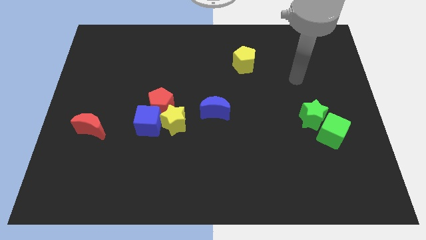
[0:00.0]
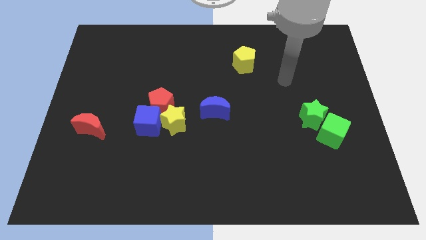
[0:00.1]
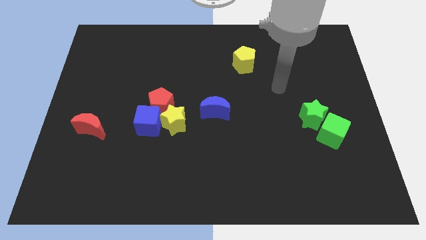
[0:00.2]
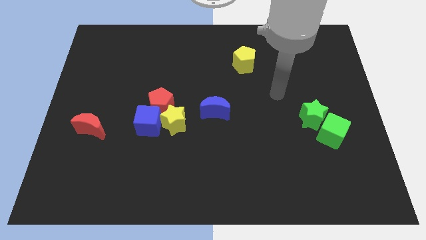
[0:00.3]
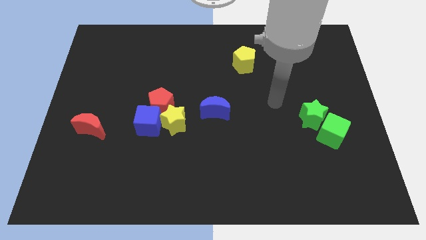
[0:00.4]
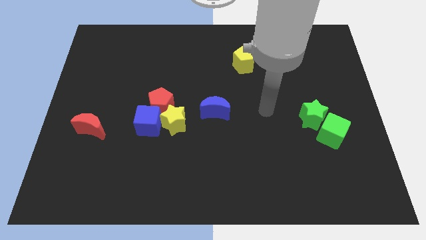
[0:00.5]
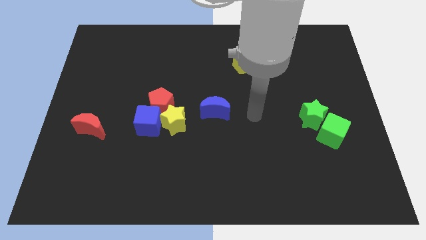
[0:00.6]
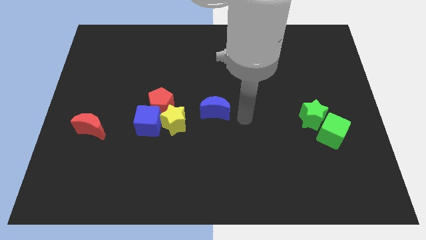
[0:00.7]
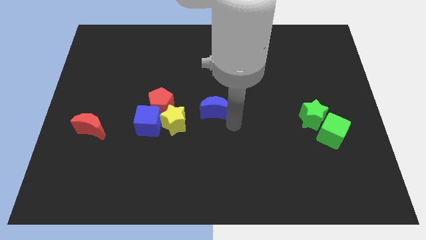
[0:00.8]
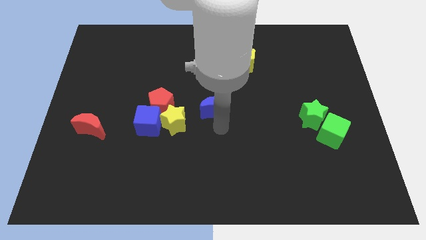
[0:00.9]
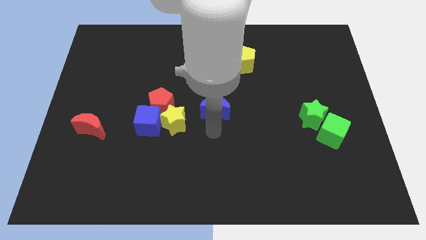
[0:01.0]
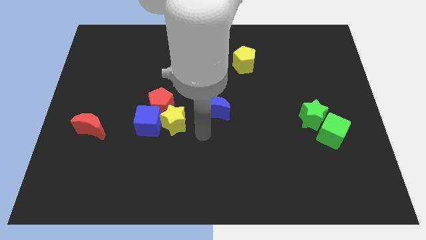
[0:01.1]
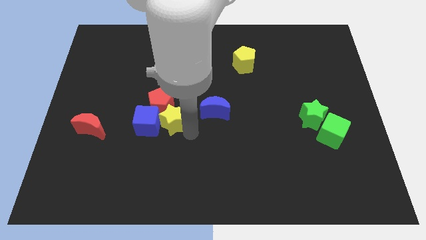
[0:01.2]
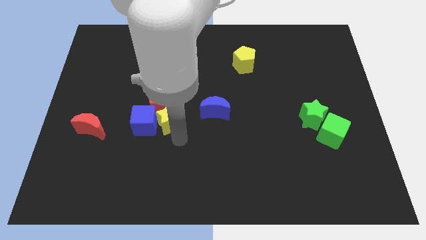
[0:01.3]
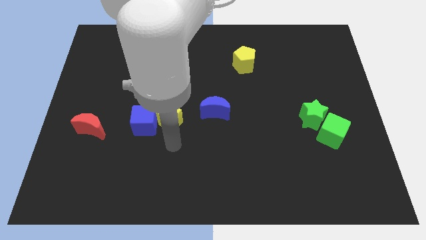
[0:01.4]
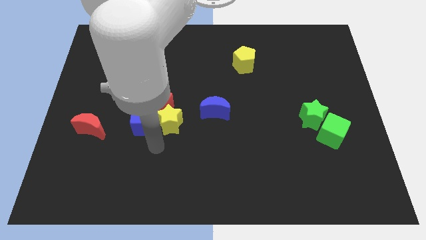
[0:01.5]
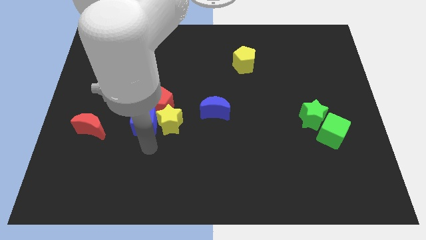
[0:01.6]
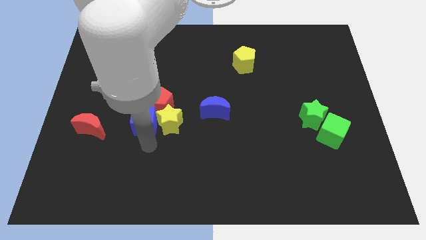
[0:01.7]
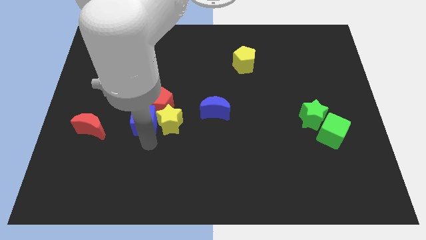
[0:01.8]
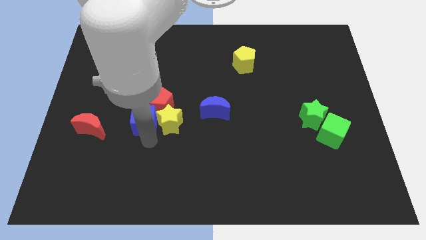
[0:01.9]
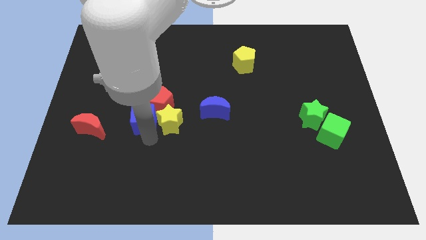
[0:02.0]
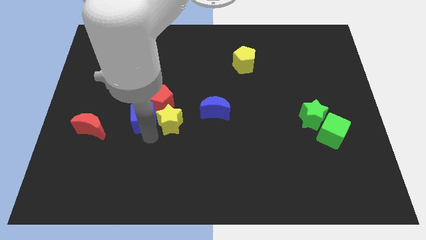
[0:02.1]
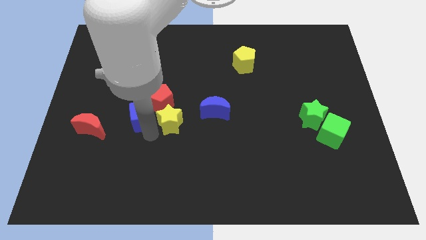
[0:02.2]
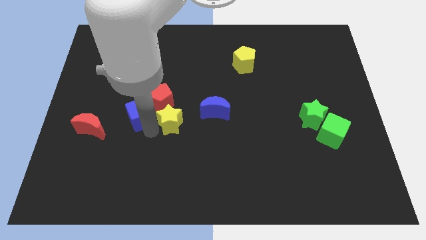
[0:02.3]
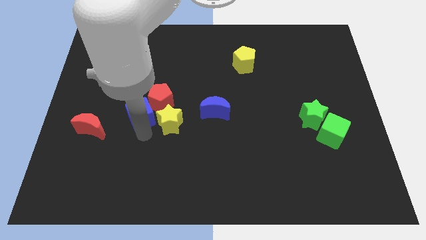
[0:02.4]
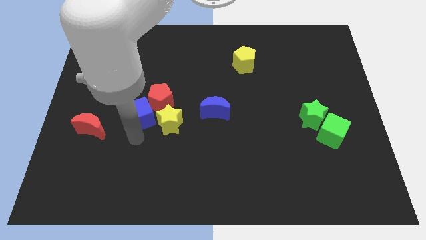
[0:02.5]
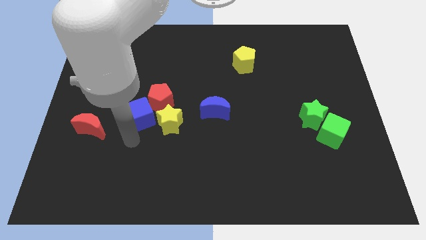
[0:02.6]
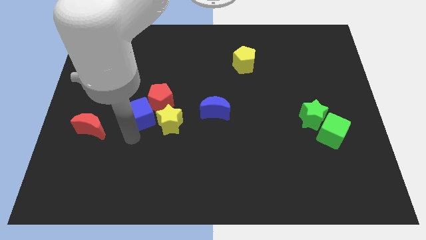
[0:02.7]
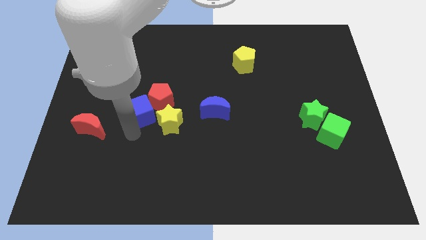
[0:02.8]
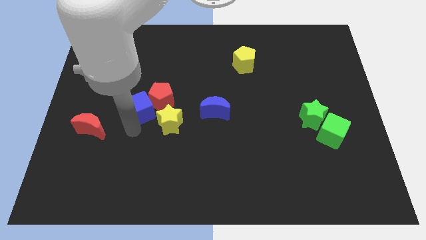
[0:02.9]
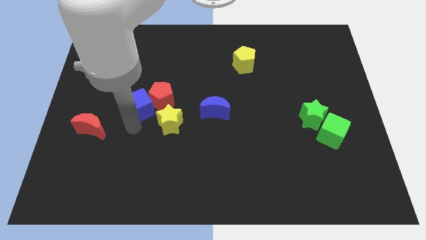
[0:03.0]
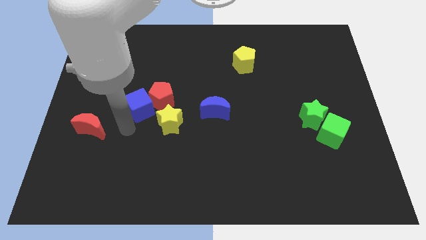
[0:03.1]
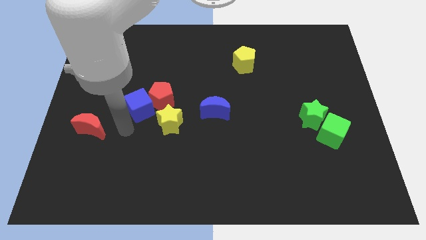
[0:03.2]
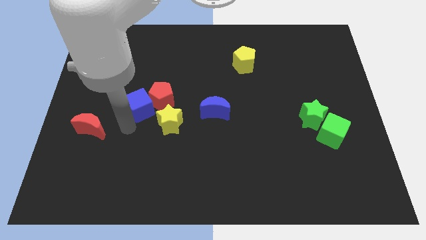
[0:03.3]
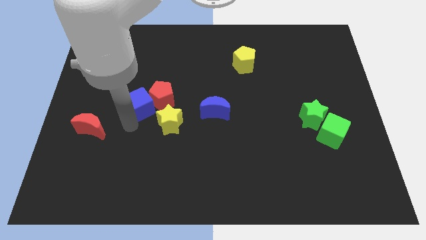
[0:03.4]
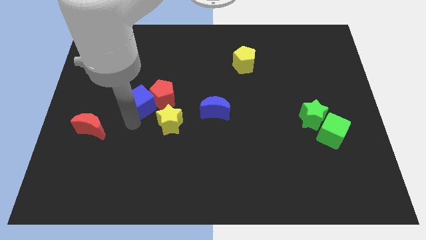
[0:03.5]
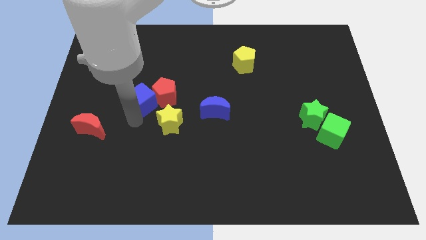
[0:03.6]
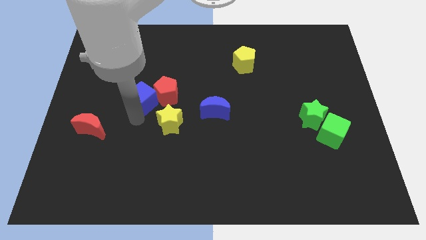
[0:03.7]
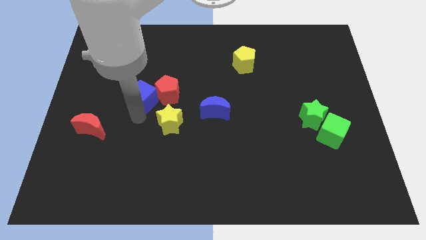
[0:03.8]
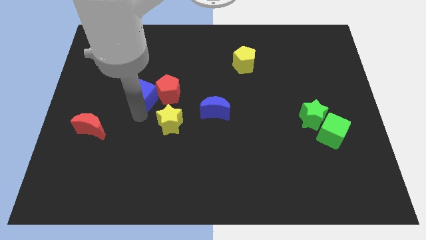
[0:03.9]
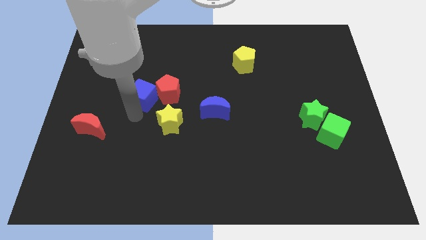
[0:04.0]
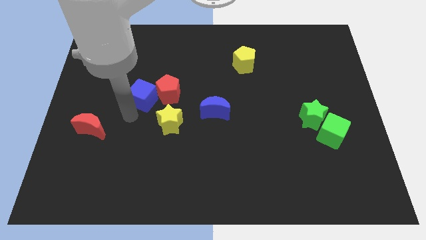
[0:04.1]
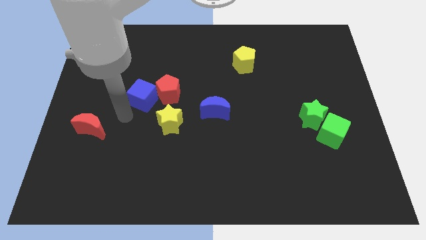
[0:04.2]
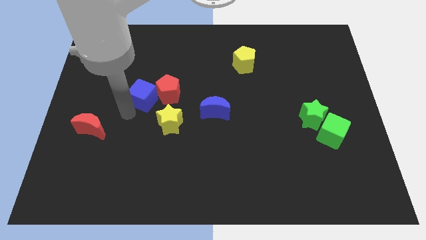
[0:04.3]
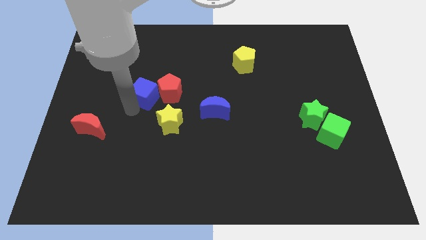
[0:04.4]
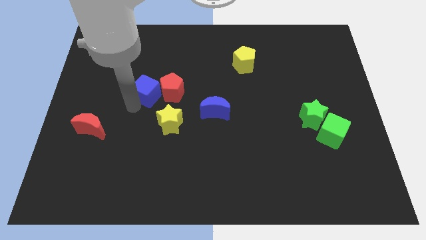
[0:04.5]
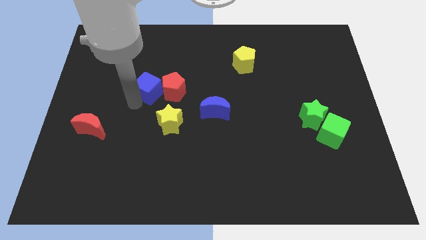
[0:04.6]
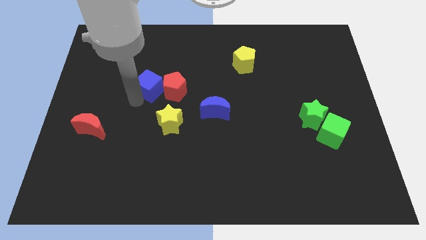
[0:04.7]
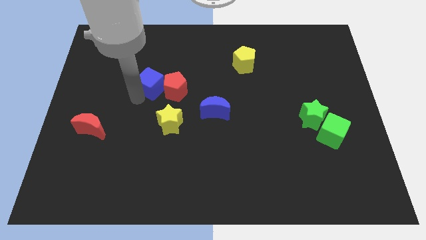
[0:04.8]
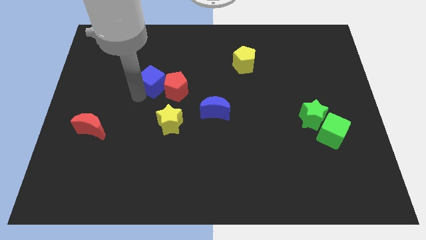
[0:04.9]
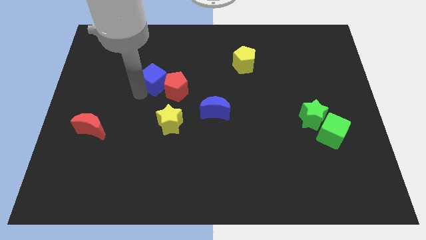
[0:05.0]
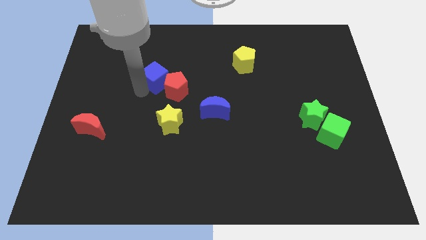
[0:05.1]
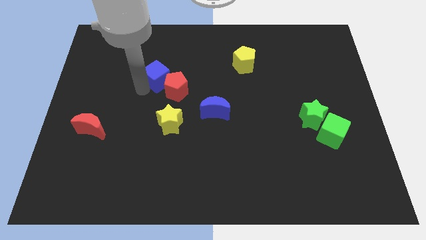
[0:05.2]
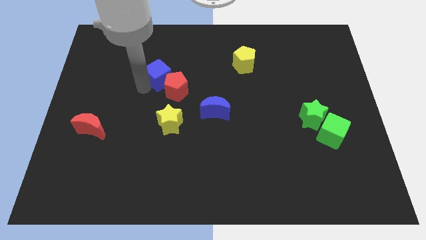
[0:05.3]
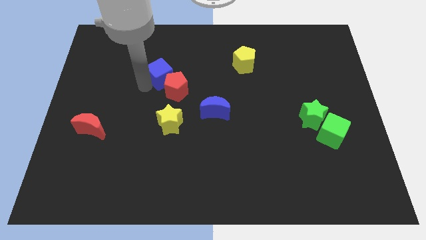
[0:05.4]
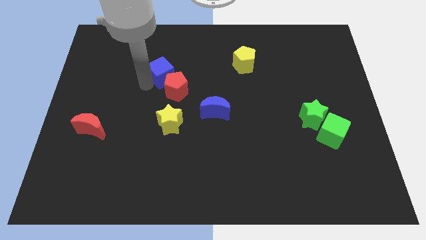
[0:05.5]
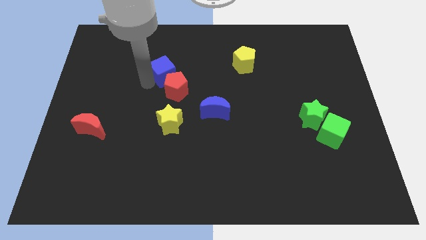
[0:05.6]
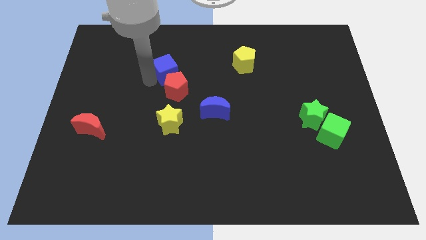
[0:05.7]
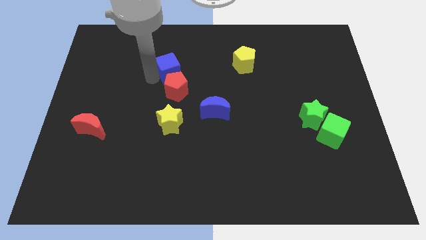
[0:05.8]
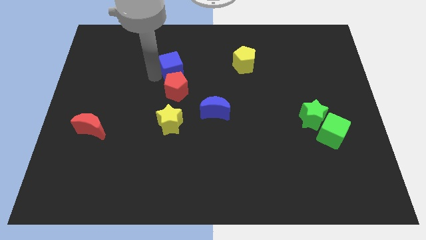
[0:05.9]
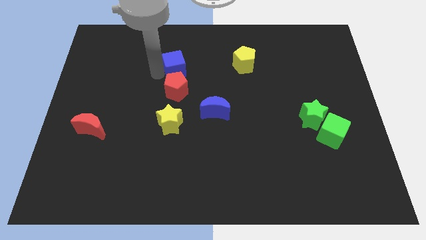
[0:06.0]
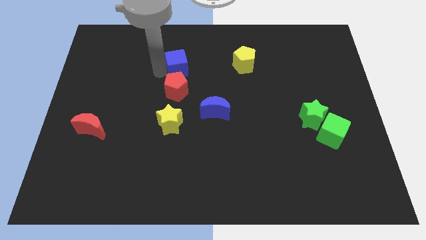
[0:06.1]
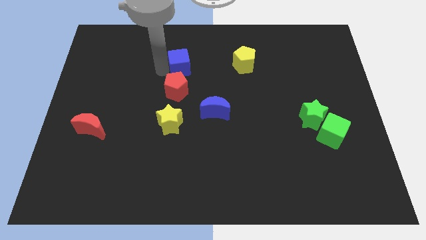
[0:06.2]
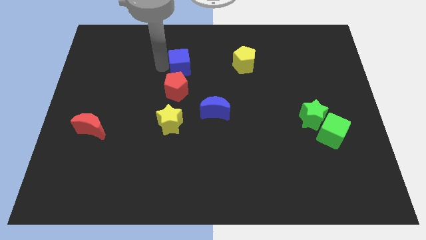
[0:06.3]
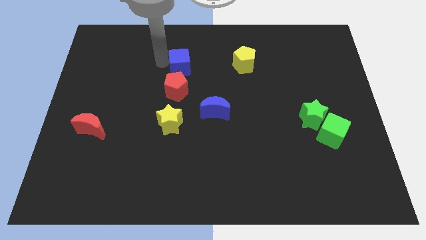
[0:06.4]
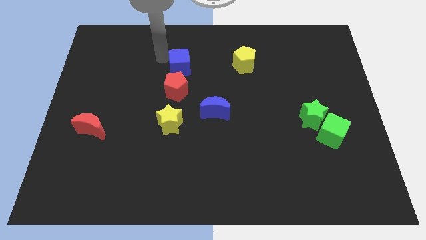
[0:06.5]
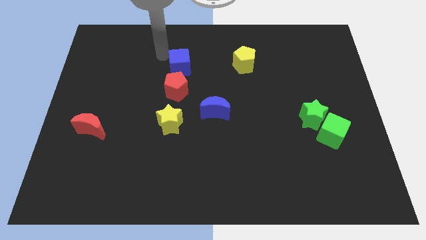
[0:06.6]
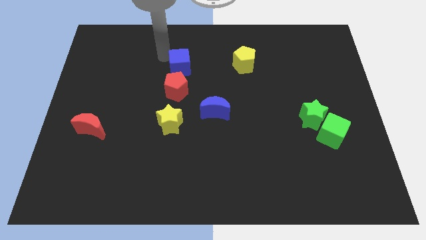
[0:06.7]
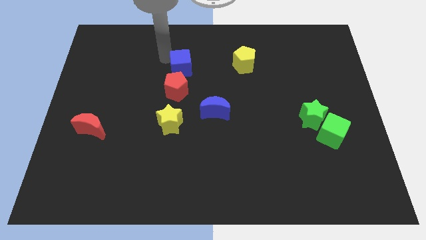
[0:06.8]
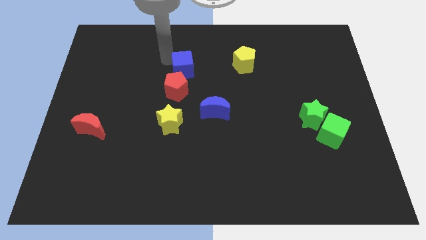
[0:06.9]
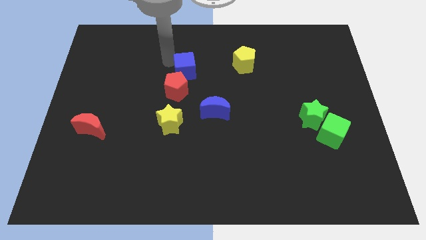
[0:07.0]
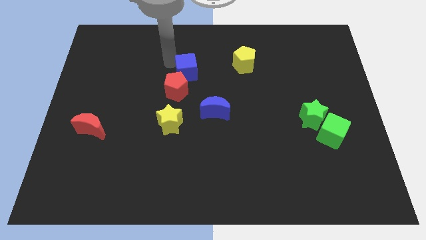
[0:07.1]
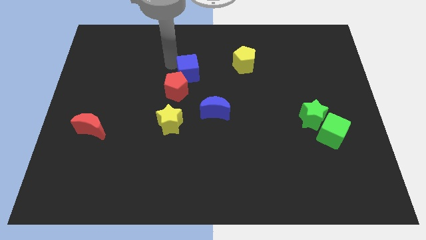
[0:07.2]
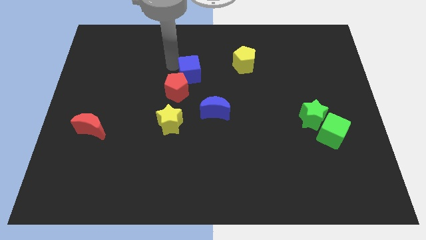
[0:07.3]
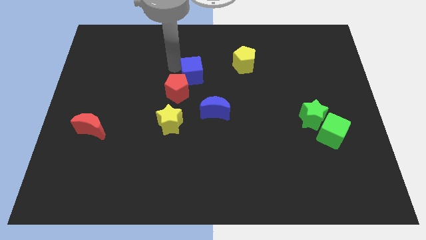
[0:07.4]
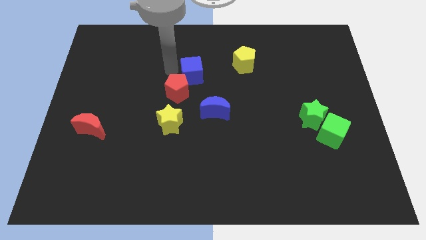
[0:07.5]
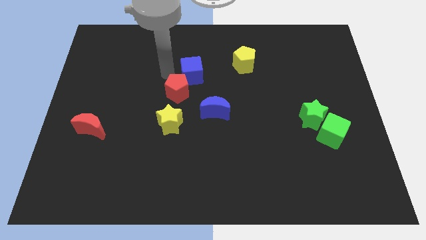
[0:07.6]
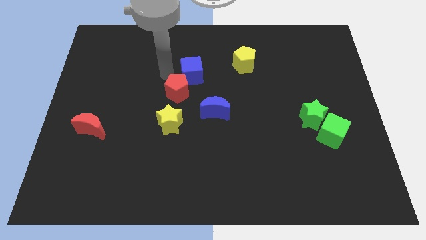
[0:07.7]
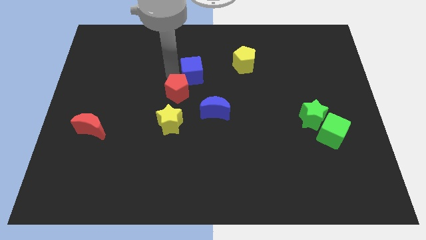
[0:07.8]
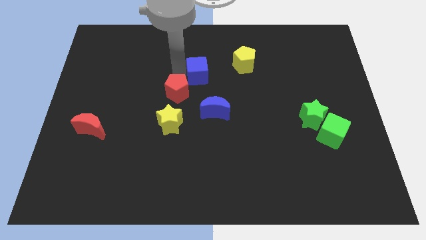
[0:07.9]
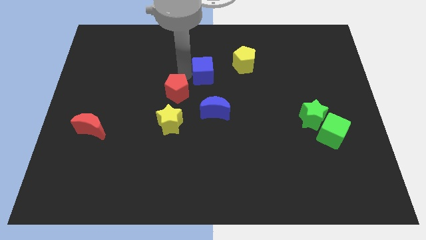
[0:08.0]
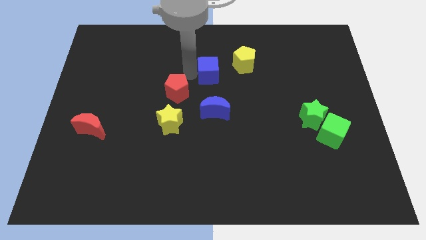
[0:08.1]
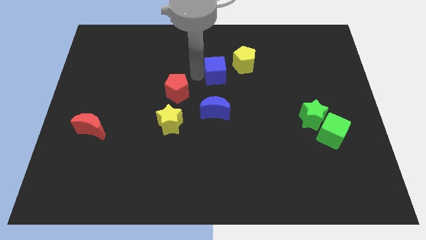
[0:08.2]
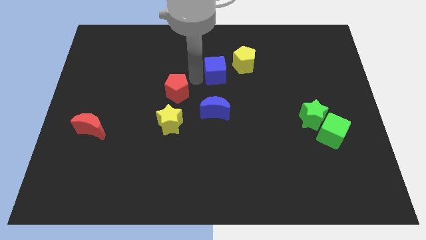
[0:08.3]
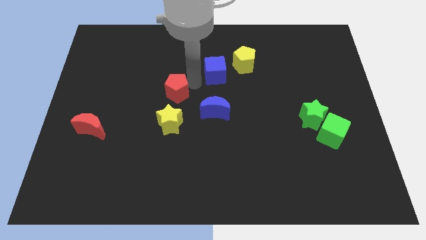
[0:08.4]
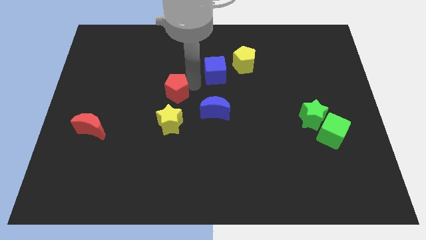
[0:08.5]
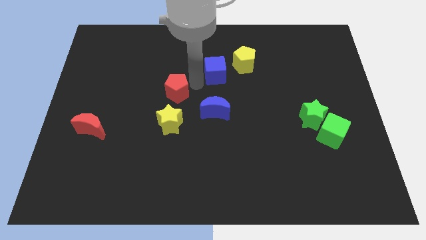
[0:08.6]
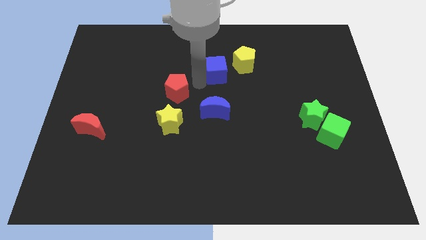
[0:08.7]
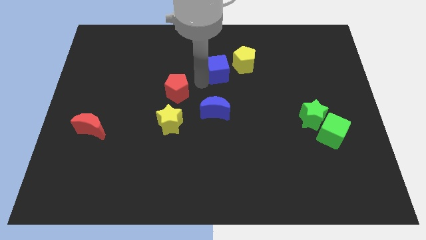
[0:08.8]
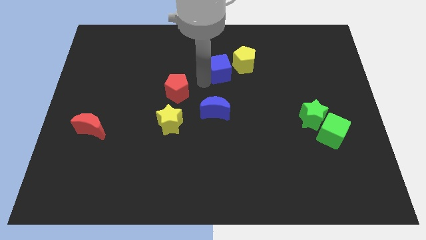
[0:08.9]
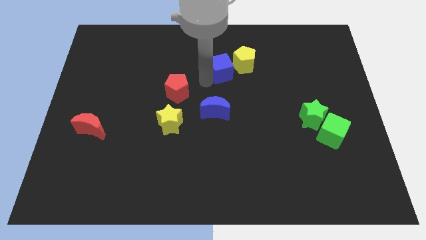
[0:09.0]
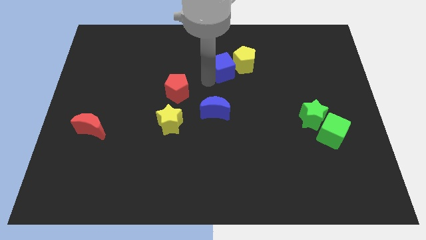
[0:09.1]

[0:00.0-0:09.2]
slide the blue cube towards the yellow pentagon
